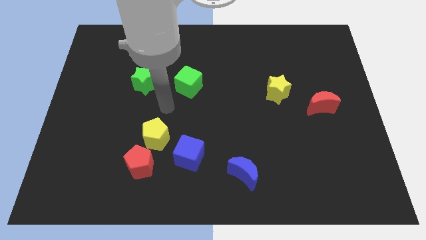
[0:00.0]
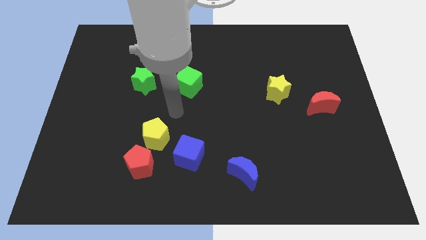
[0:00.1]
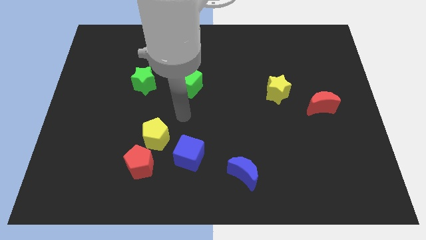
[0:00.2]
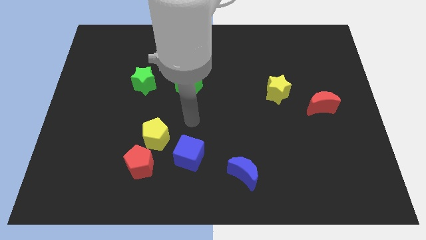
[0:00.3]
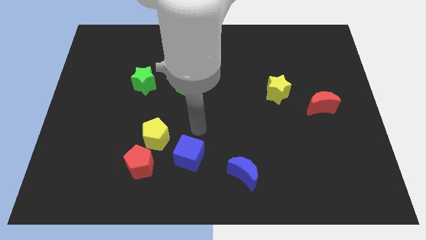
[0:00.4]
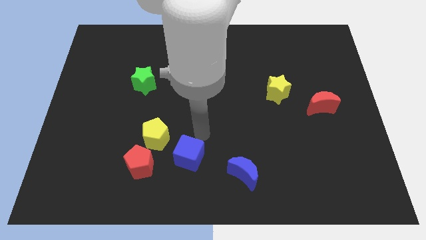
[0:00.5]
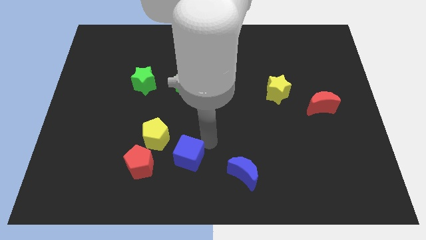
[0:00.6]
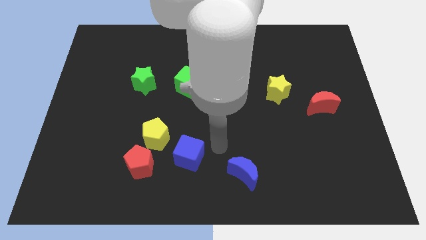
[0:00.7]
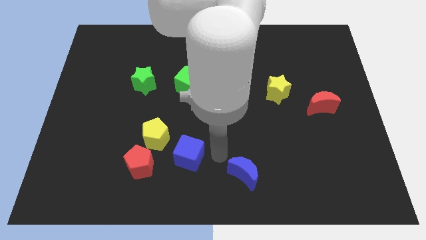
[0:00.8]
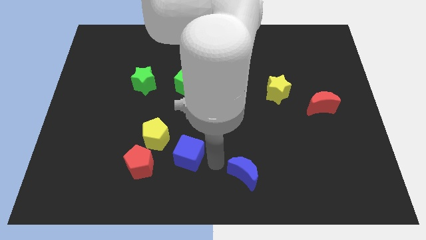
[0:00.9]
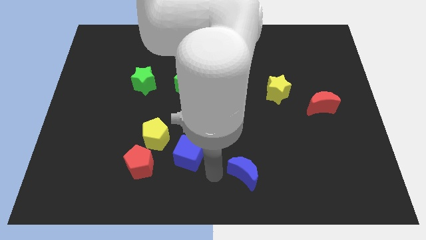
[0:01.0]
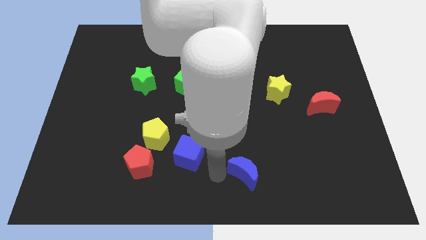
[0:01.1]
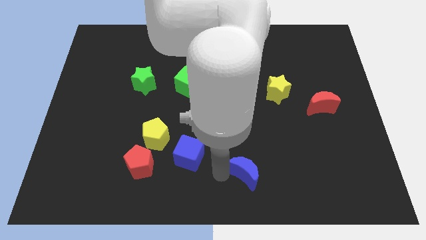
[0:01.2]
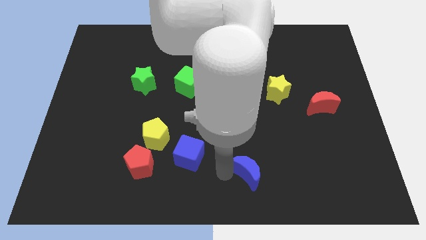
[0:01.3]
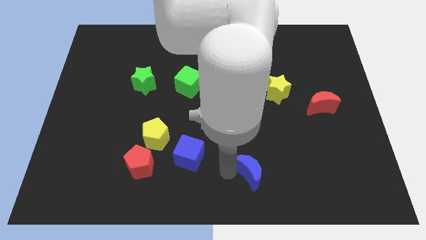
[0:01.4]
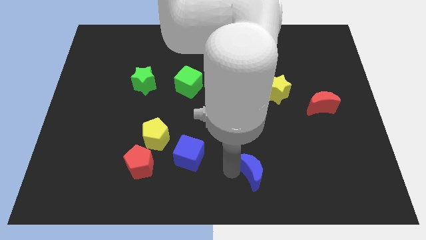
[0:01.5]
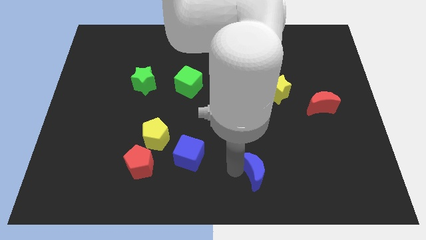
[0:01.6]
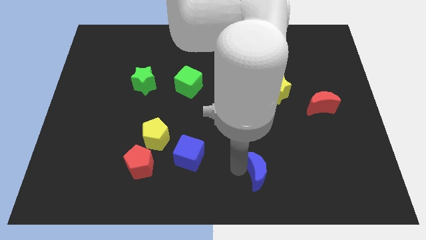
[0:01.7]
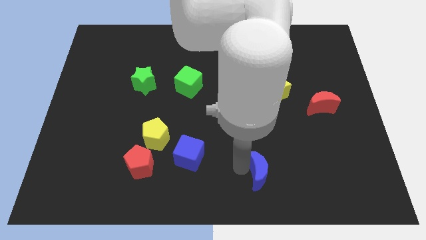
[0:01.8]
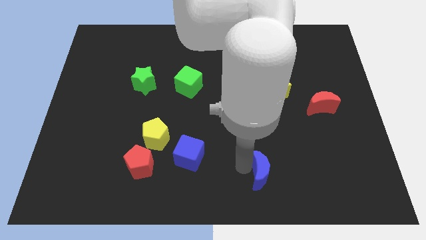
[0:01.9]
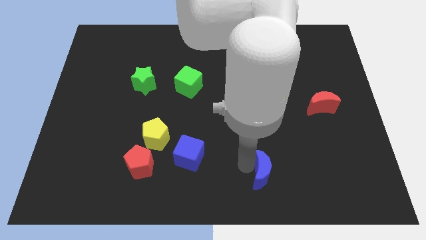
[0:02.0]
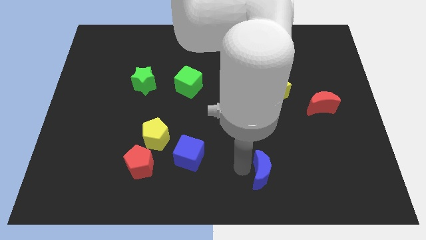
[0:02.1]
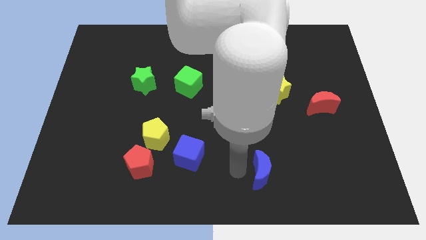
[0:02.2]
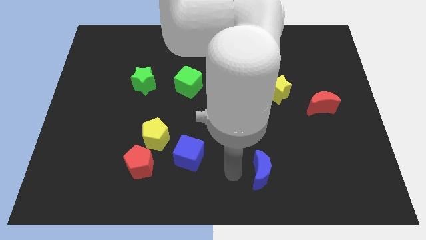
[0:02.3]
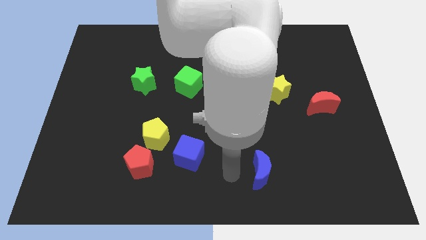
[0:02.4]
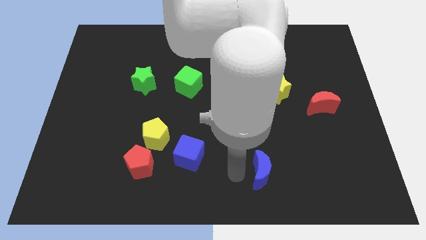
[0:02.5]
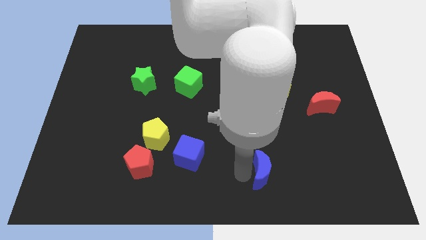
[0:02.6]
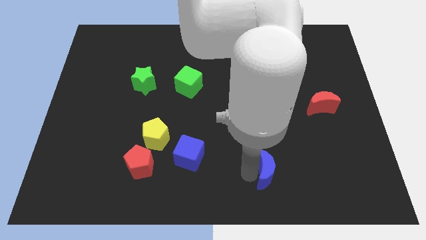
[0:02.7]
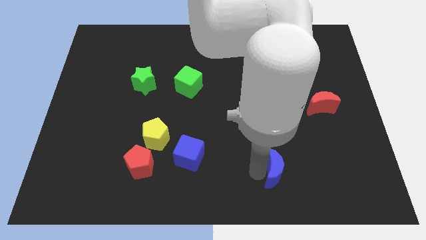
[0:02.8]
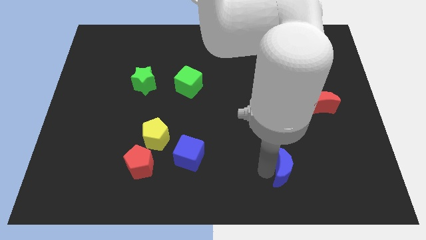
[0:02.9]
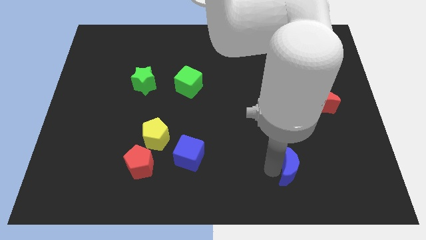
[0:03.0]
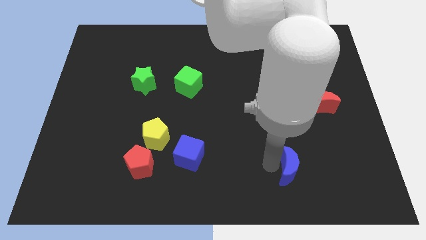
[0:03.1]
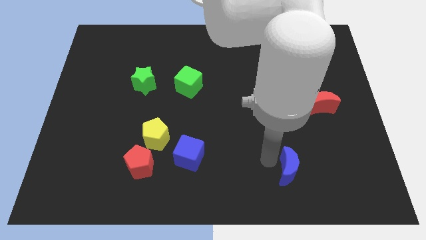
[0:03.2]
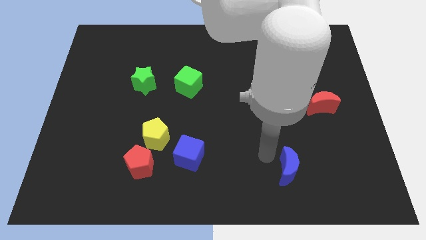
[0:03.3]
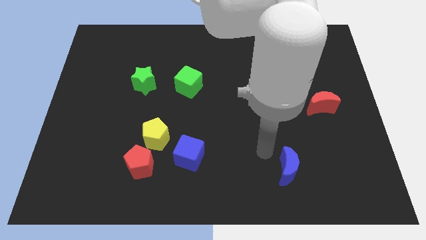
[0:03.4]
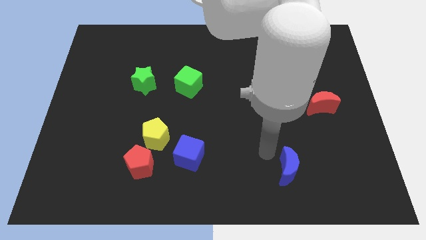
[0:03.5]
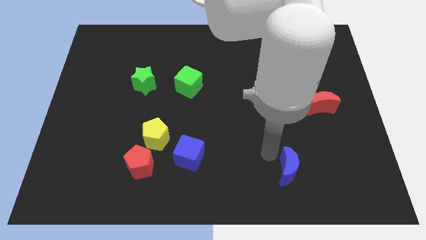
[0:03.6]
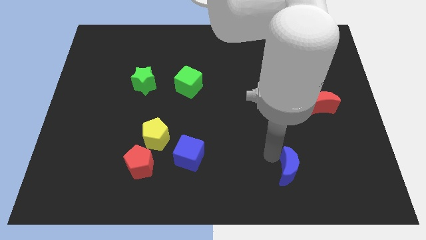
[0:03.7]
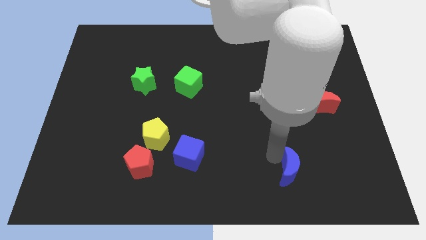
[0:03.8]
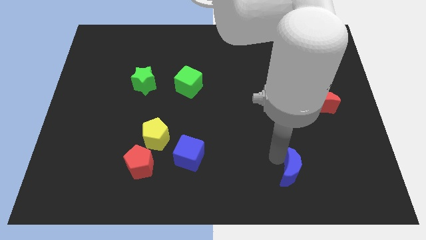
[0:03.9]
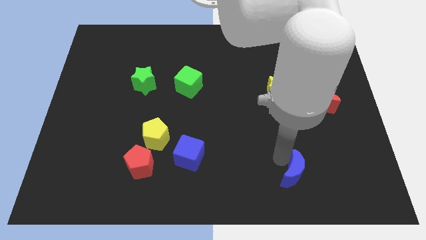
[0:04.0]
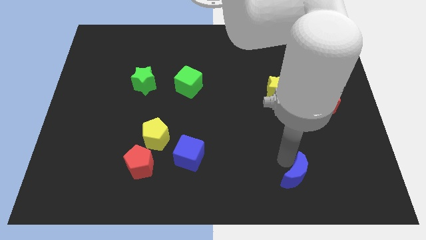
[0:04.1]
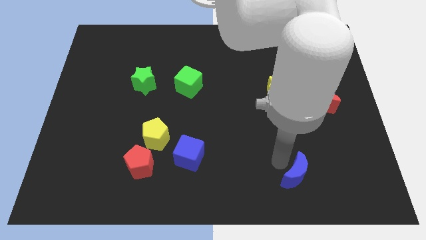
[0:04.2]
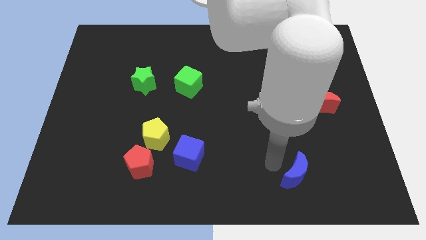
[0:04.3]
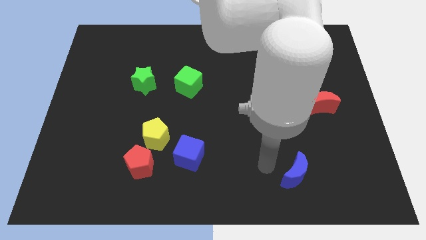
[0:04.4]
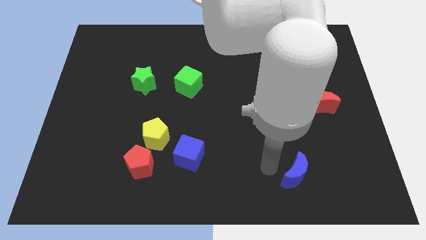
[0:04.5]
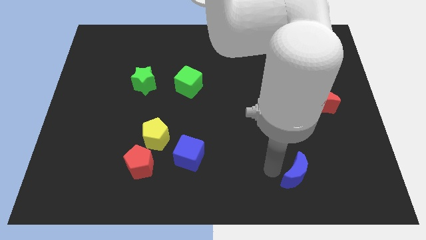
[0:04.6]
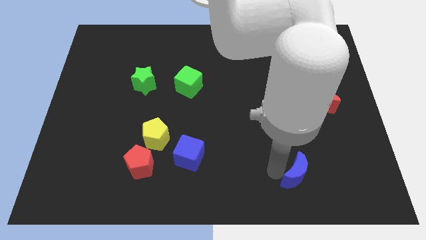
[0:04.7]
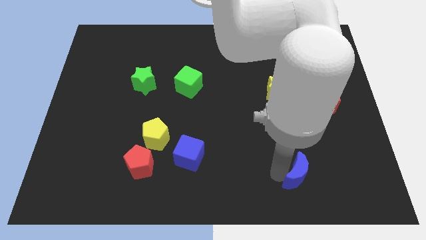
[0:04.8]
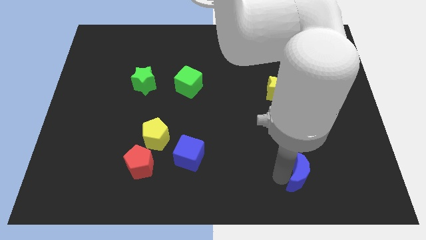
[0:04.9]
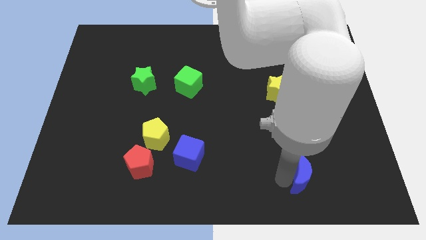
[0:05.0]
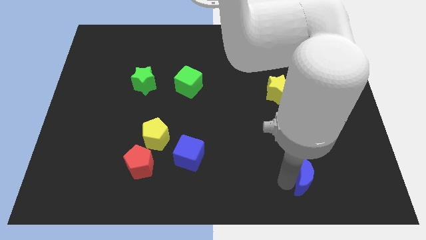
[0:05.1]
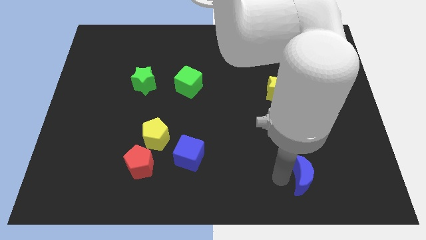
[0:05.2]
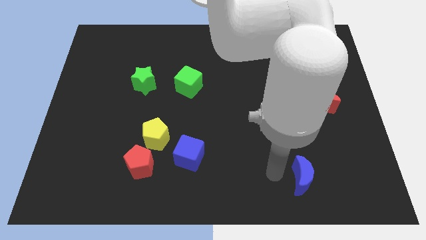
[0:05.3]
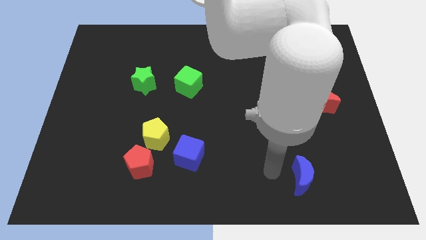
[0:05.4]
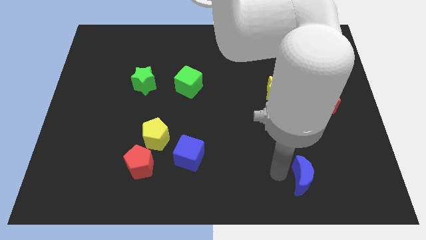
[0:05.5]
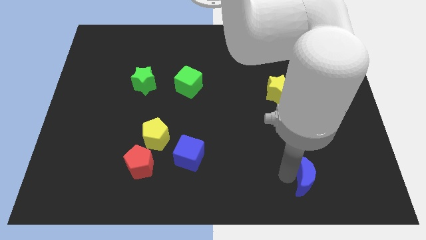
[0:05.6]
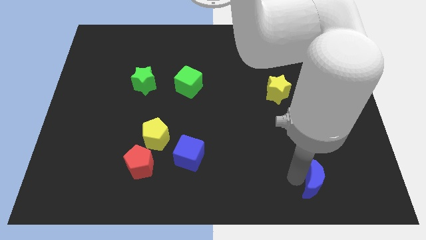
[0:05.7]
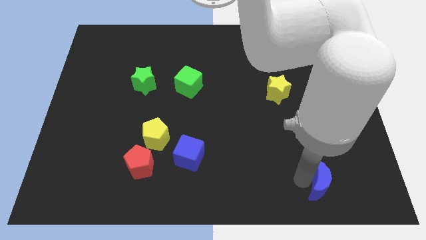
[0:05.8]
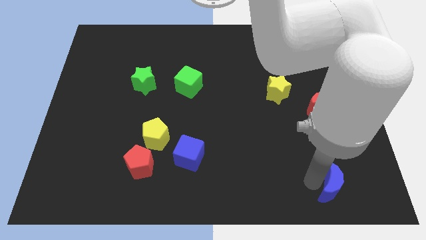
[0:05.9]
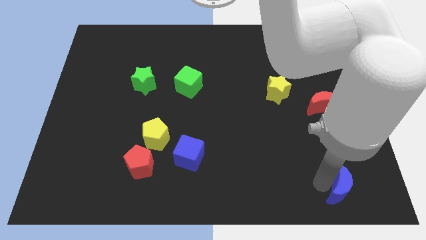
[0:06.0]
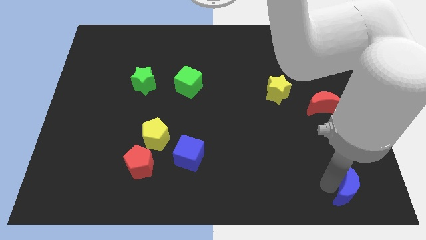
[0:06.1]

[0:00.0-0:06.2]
put the blue moon to the bottom right of the board

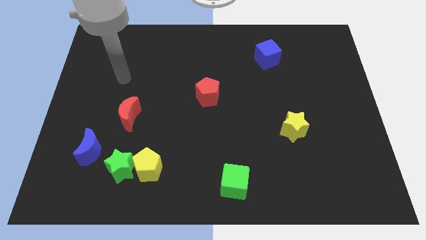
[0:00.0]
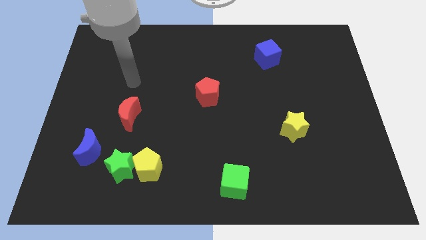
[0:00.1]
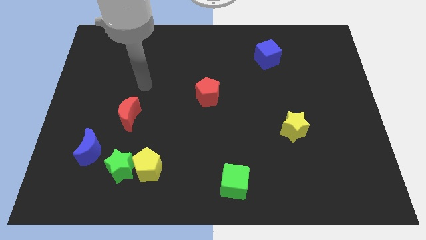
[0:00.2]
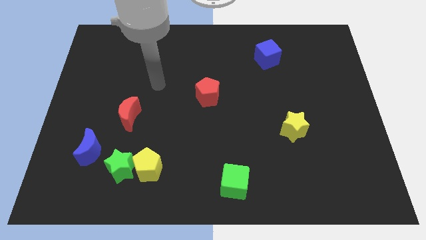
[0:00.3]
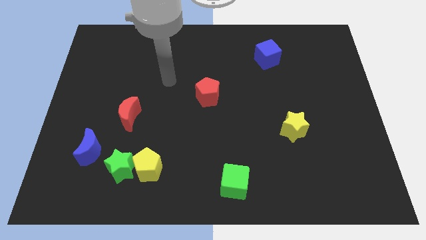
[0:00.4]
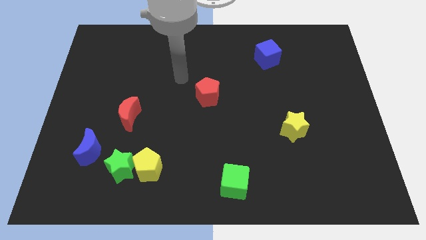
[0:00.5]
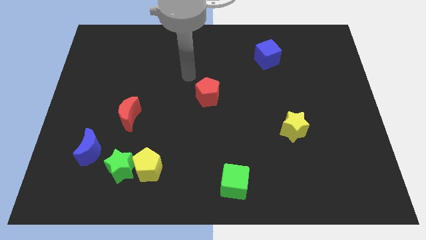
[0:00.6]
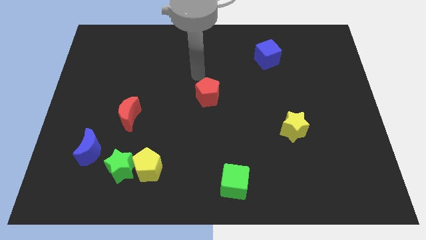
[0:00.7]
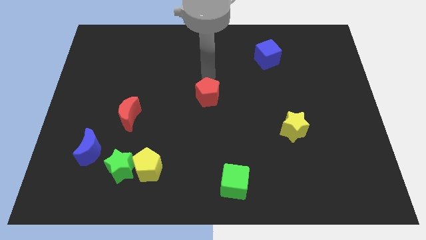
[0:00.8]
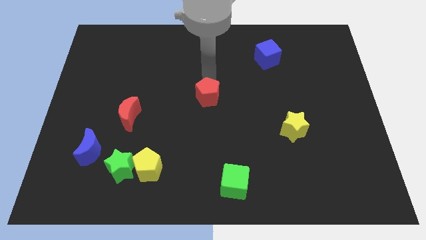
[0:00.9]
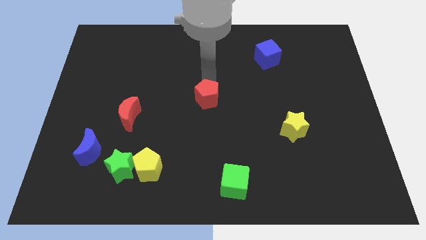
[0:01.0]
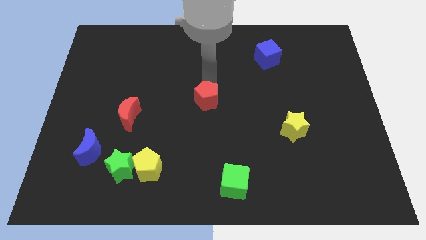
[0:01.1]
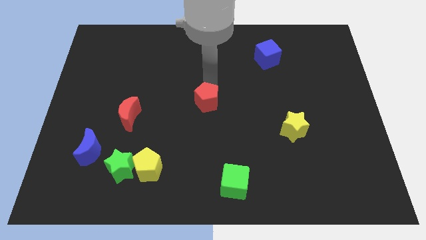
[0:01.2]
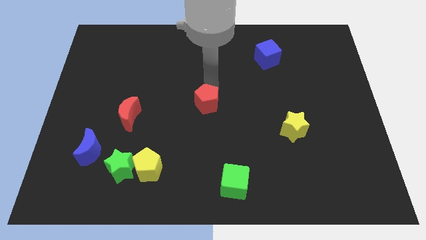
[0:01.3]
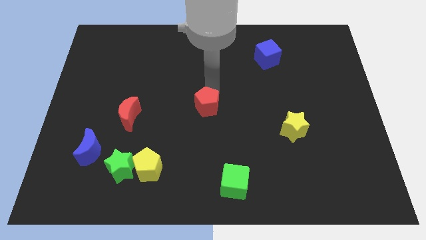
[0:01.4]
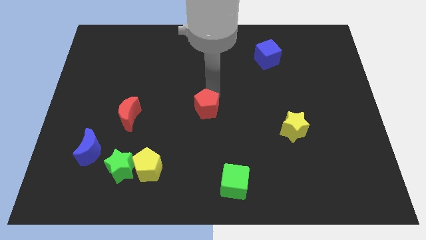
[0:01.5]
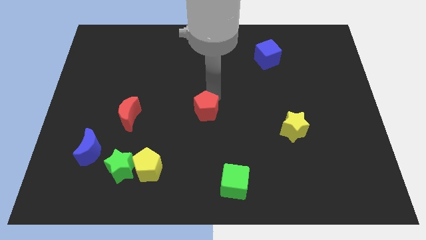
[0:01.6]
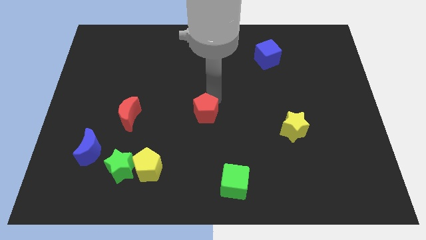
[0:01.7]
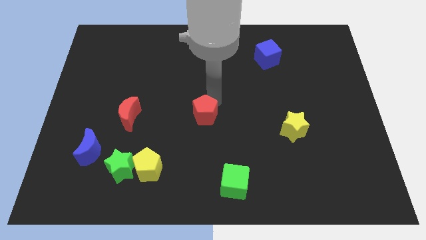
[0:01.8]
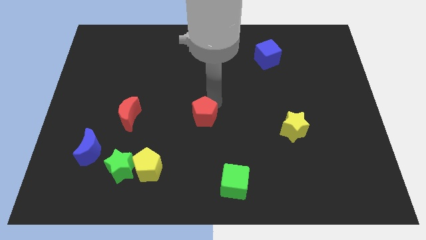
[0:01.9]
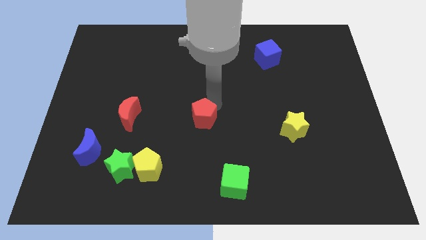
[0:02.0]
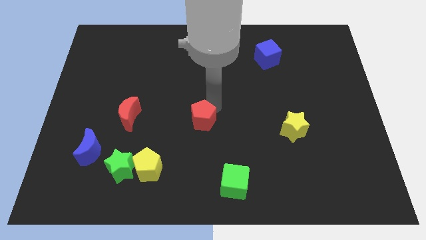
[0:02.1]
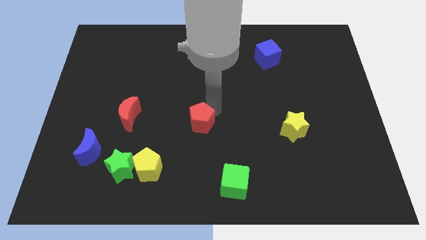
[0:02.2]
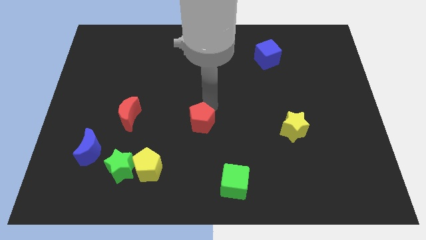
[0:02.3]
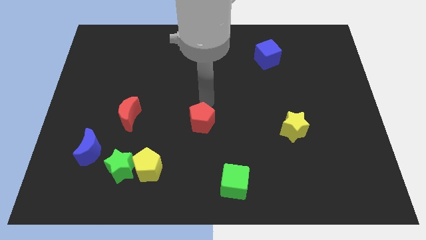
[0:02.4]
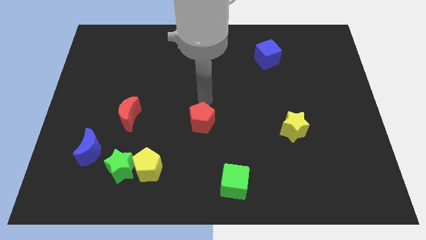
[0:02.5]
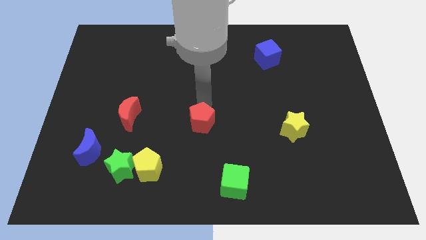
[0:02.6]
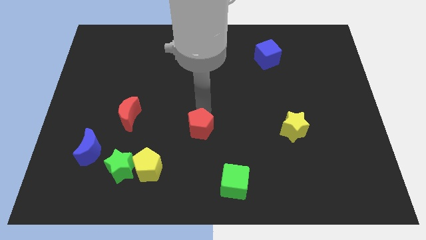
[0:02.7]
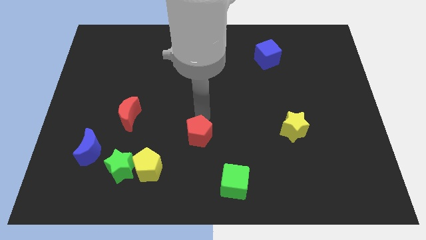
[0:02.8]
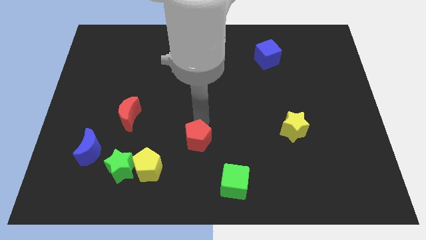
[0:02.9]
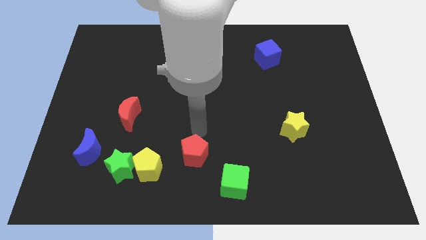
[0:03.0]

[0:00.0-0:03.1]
move the red pentagon to the bottom side
